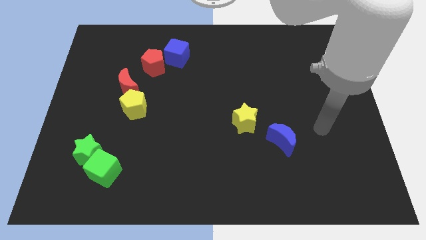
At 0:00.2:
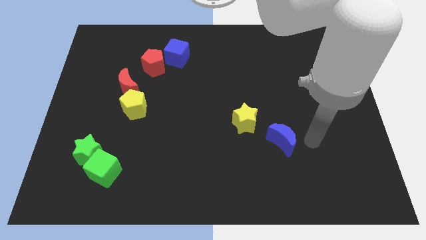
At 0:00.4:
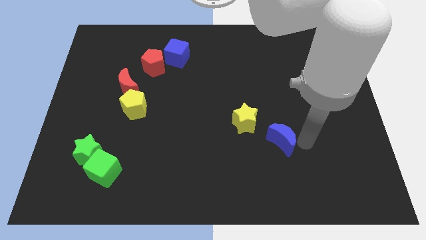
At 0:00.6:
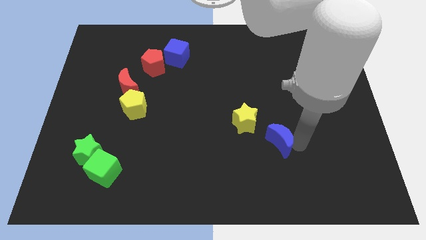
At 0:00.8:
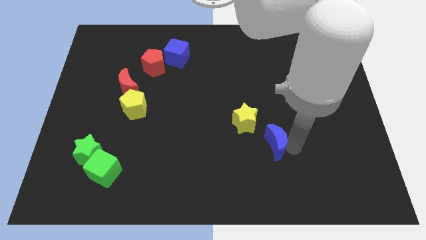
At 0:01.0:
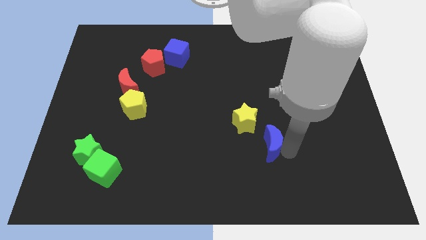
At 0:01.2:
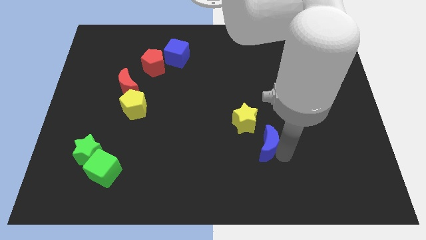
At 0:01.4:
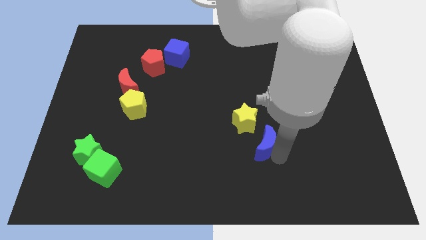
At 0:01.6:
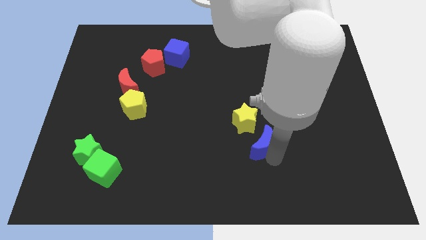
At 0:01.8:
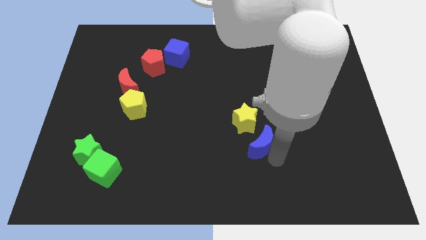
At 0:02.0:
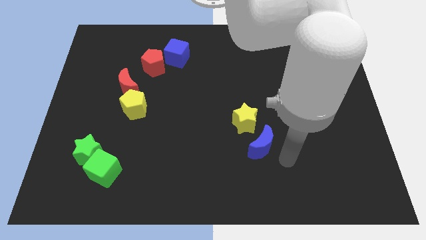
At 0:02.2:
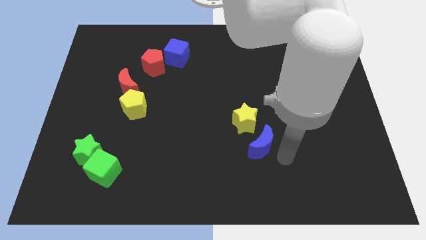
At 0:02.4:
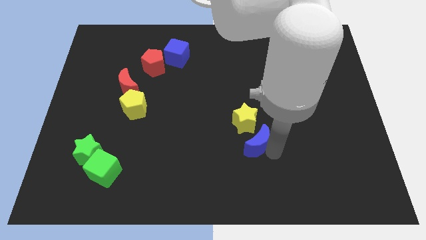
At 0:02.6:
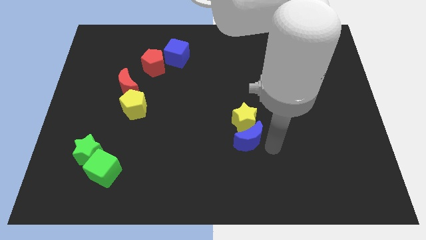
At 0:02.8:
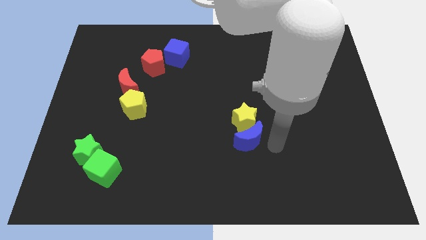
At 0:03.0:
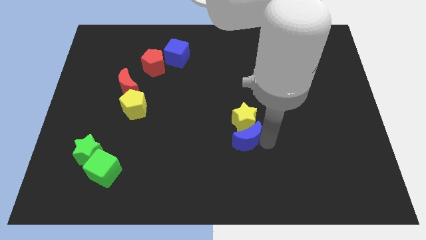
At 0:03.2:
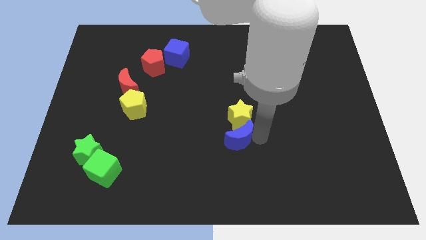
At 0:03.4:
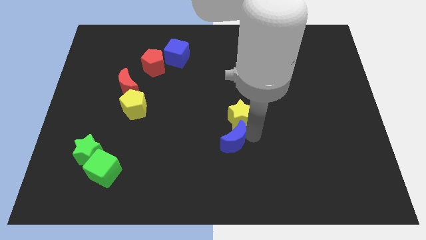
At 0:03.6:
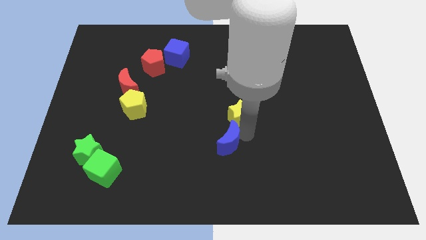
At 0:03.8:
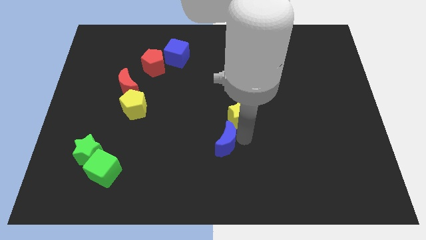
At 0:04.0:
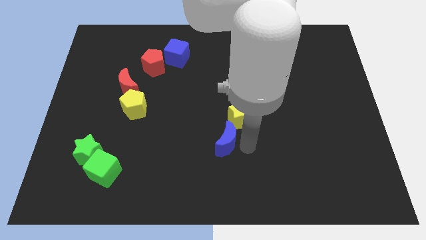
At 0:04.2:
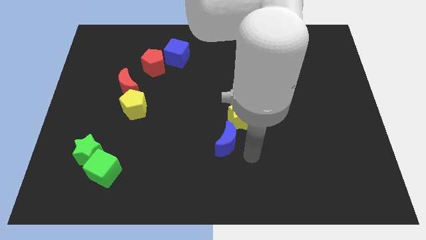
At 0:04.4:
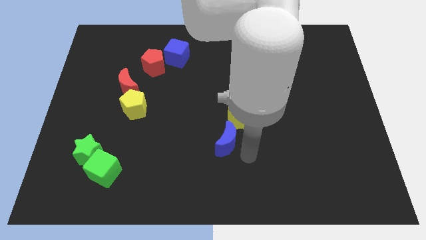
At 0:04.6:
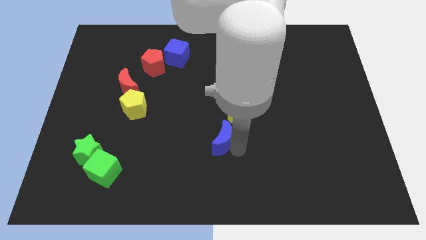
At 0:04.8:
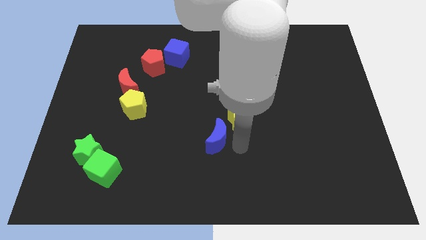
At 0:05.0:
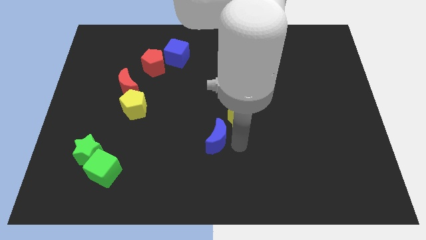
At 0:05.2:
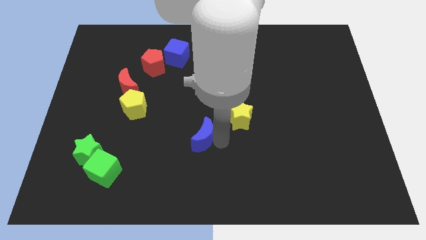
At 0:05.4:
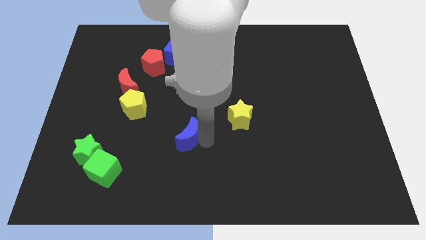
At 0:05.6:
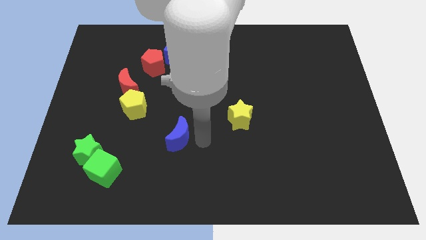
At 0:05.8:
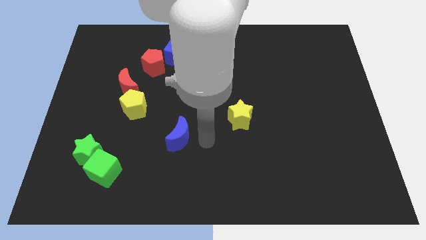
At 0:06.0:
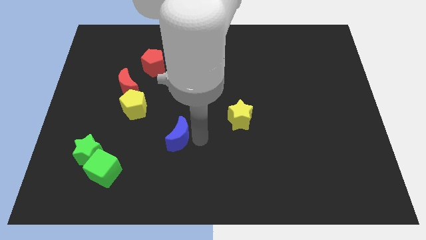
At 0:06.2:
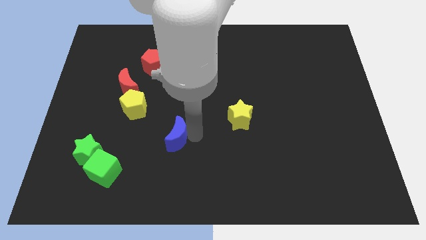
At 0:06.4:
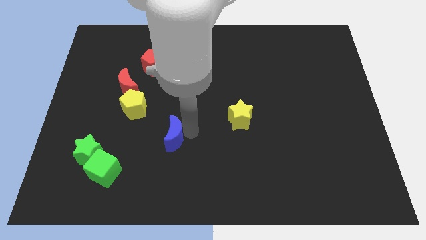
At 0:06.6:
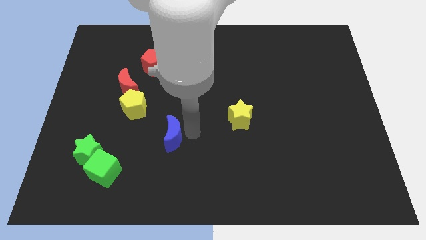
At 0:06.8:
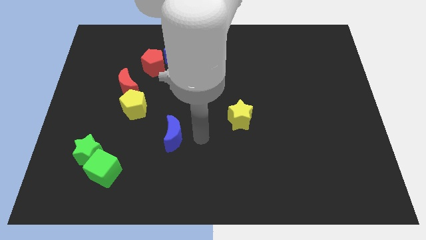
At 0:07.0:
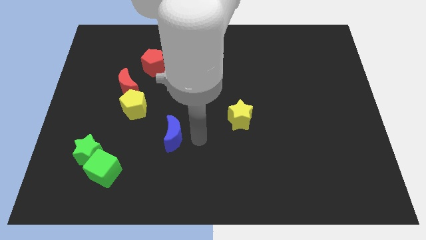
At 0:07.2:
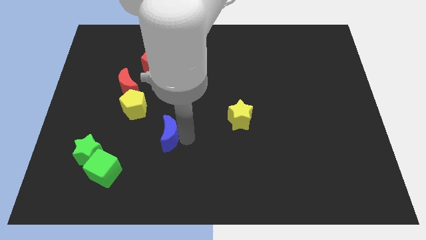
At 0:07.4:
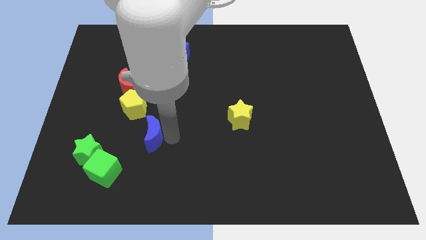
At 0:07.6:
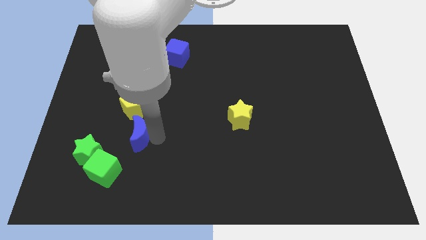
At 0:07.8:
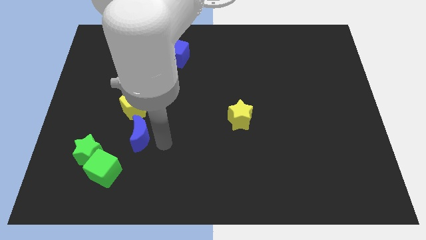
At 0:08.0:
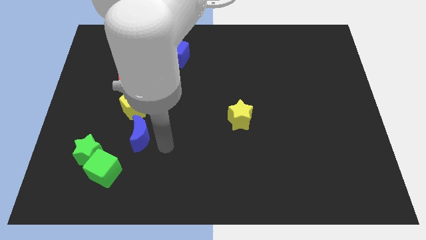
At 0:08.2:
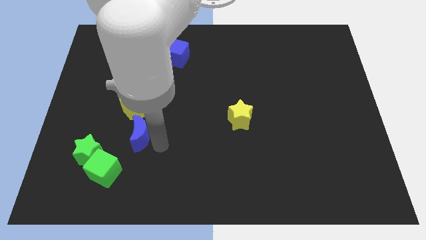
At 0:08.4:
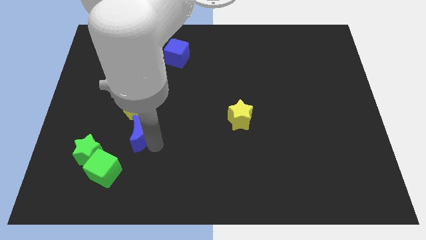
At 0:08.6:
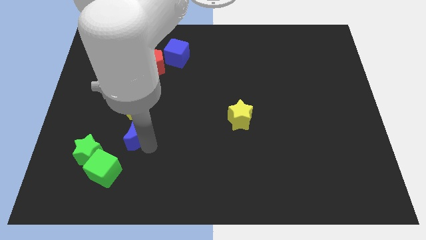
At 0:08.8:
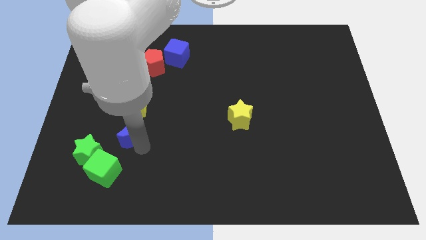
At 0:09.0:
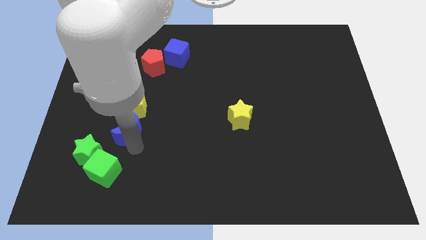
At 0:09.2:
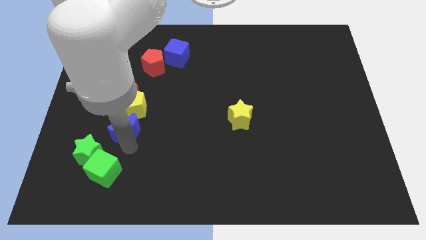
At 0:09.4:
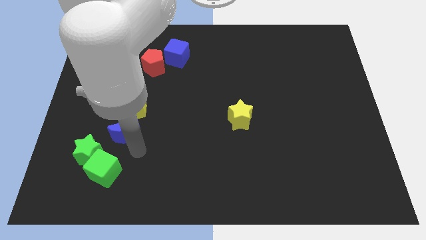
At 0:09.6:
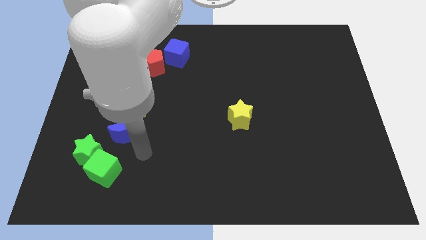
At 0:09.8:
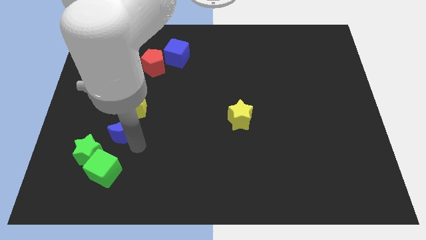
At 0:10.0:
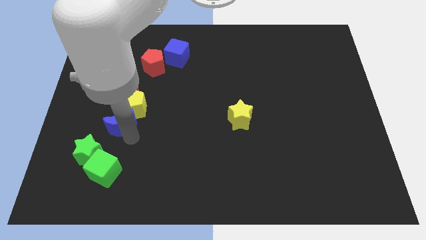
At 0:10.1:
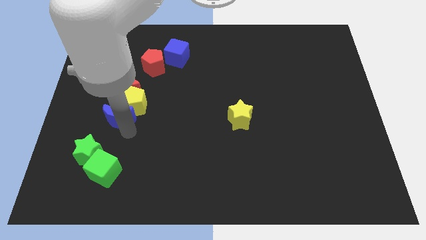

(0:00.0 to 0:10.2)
slide the blue moon to the top of the green star

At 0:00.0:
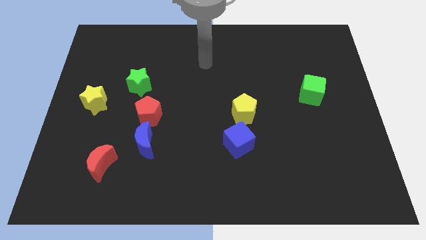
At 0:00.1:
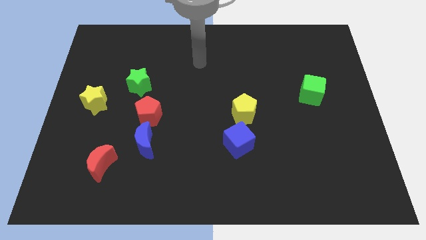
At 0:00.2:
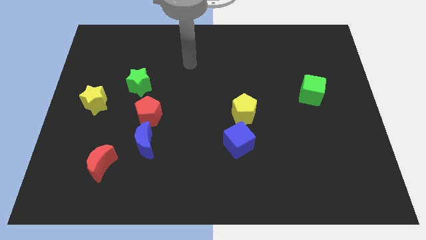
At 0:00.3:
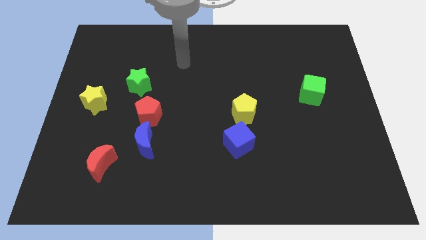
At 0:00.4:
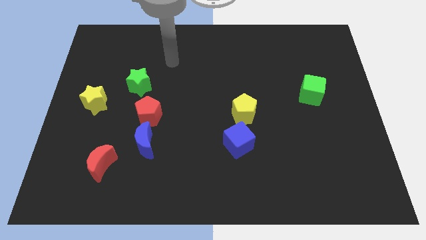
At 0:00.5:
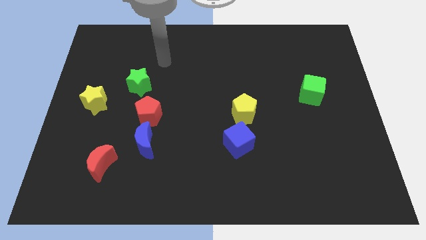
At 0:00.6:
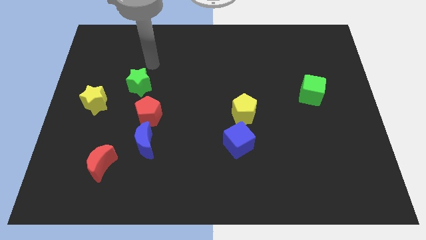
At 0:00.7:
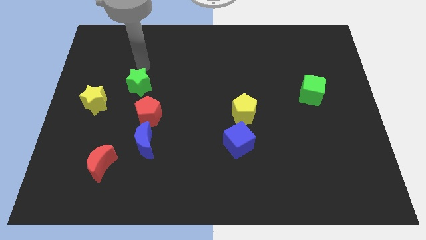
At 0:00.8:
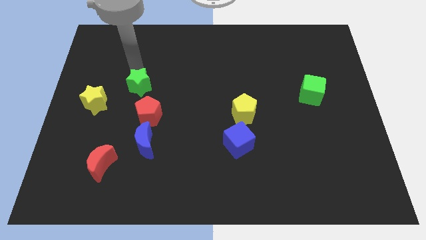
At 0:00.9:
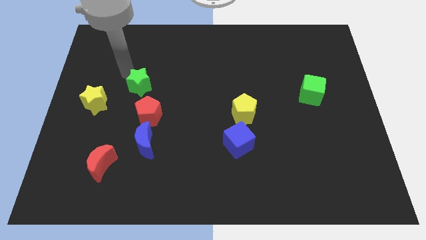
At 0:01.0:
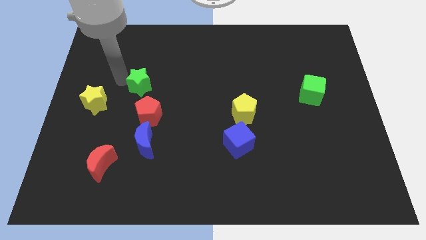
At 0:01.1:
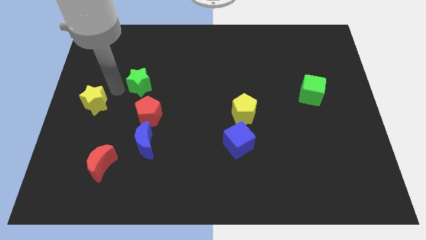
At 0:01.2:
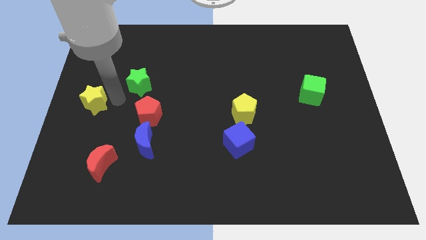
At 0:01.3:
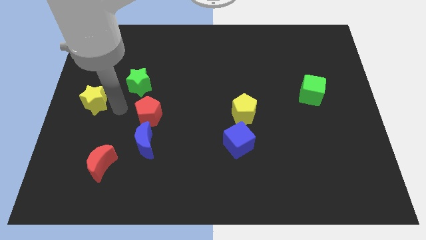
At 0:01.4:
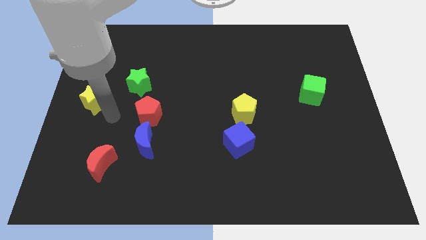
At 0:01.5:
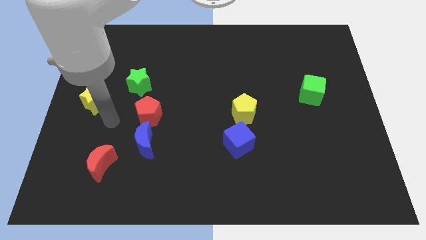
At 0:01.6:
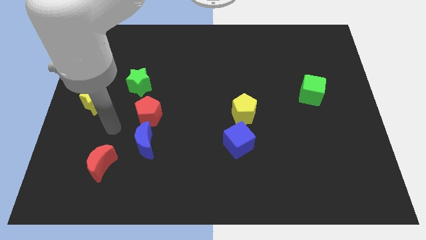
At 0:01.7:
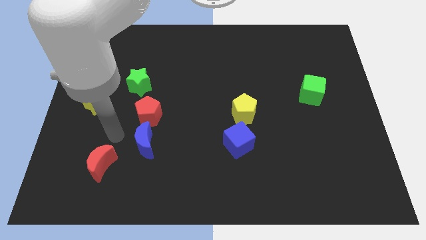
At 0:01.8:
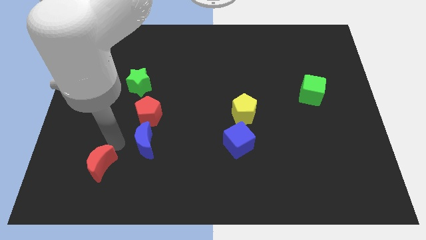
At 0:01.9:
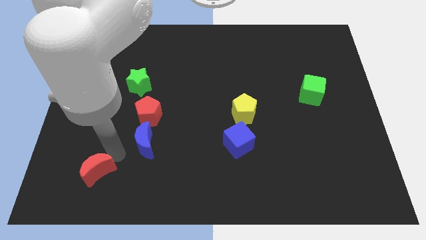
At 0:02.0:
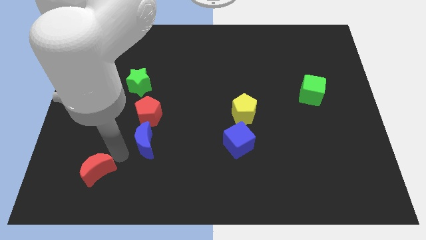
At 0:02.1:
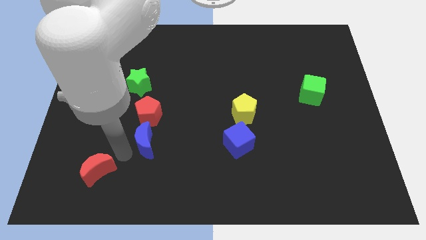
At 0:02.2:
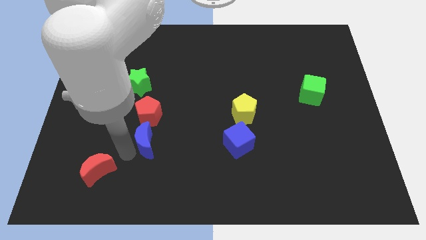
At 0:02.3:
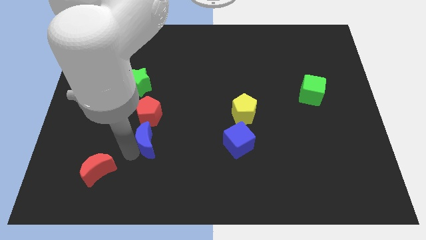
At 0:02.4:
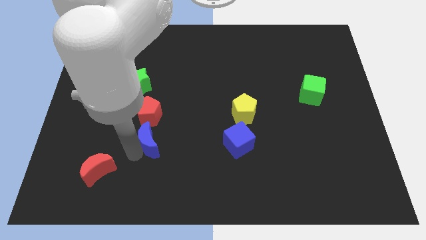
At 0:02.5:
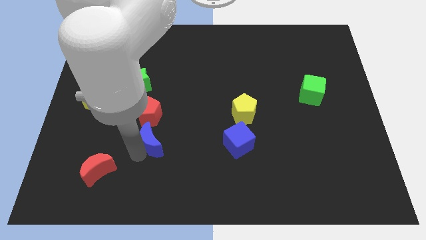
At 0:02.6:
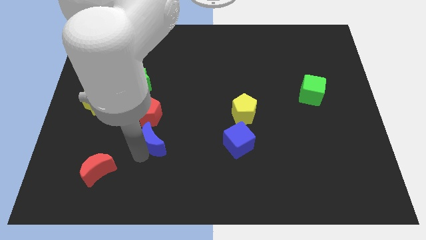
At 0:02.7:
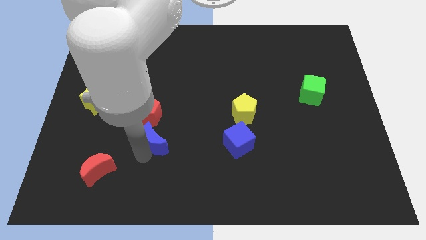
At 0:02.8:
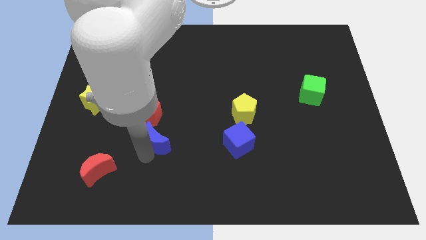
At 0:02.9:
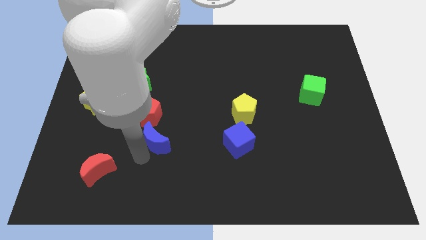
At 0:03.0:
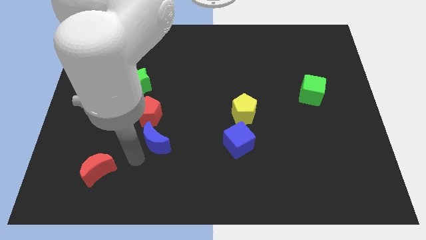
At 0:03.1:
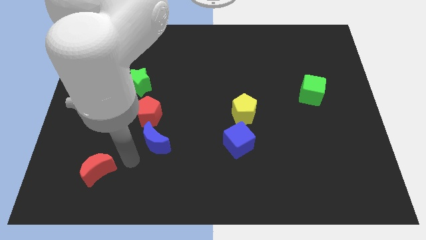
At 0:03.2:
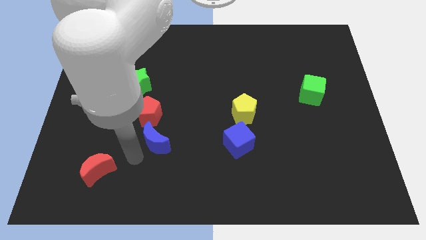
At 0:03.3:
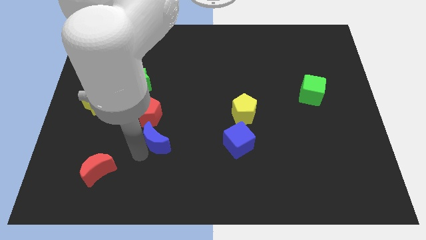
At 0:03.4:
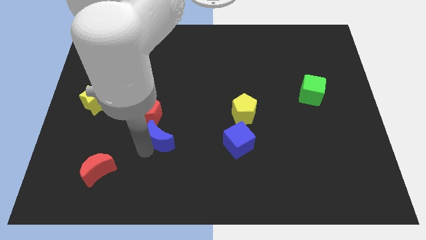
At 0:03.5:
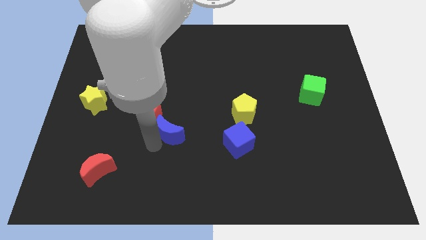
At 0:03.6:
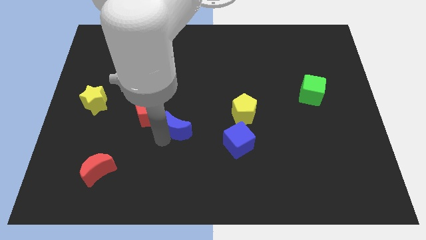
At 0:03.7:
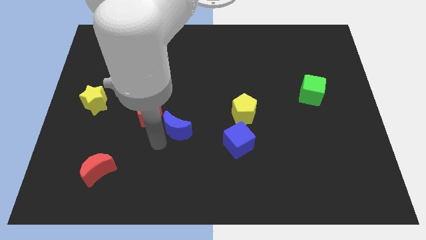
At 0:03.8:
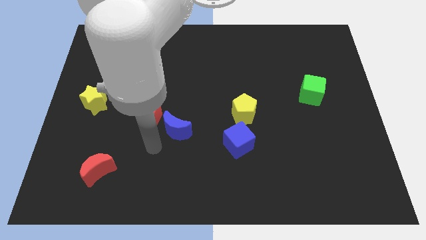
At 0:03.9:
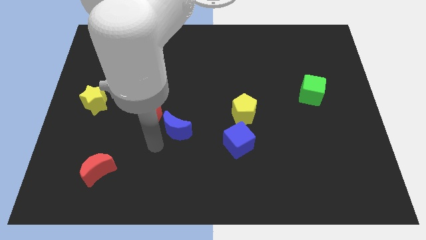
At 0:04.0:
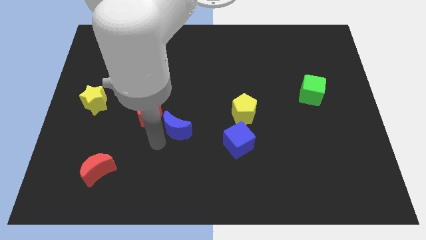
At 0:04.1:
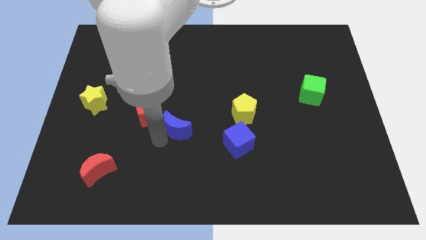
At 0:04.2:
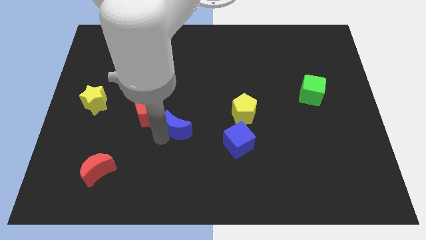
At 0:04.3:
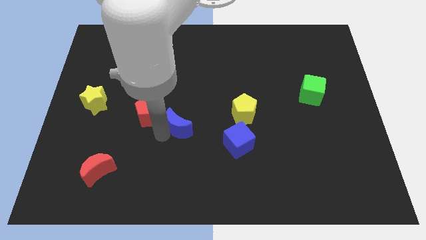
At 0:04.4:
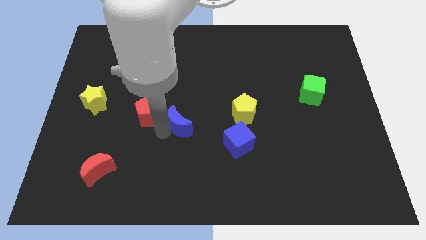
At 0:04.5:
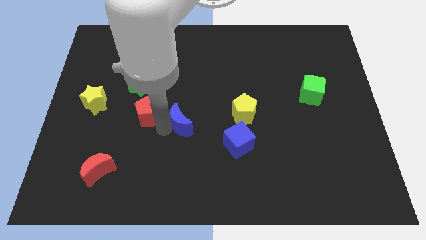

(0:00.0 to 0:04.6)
push the blue moon to the left side of the yellow pentagon
